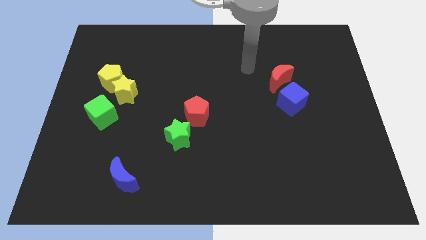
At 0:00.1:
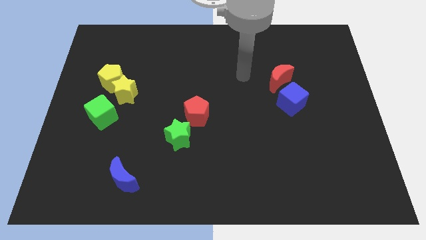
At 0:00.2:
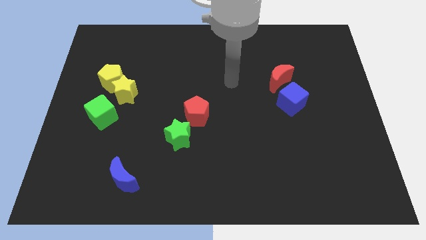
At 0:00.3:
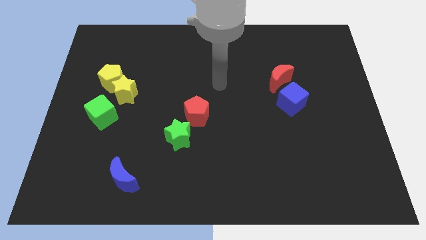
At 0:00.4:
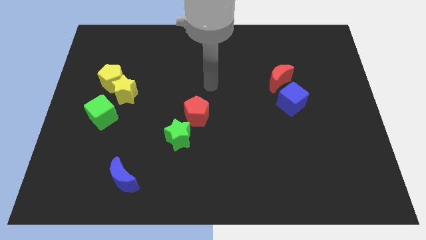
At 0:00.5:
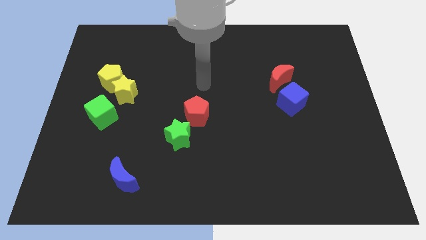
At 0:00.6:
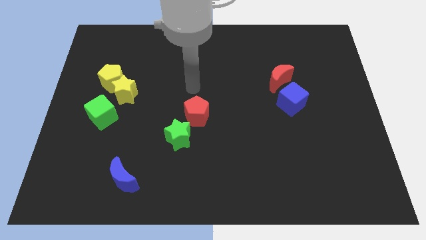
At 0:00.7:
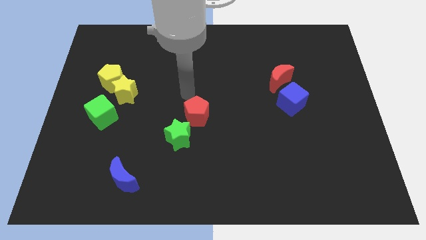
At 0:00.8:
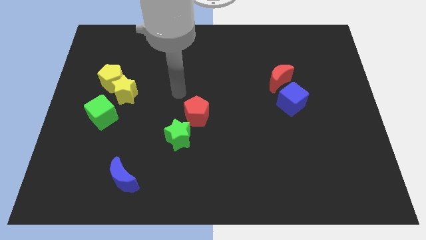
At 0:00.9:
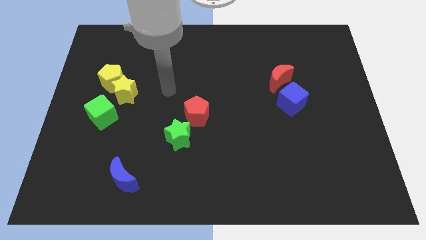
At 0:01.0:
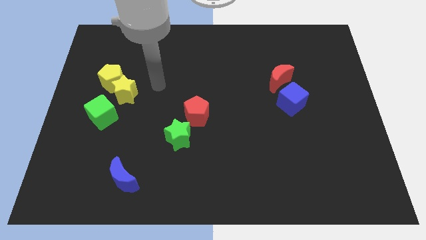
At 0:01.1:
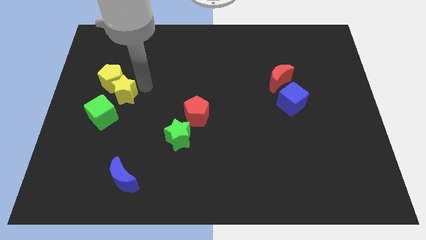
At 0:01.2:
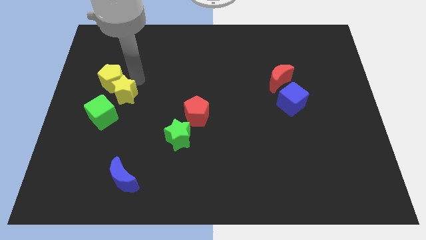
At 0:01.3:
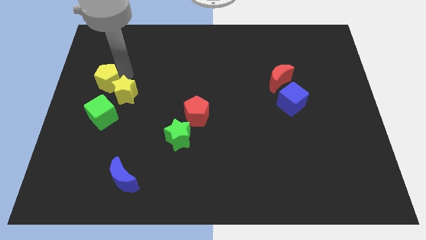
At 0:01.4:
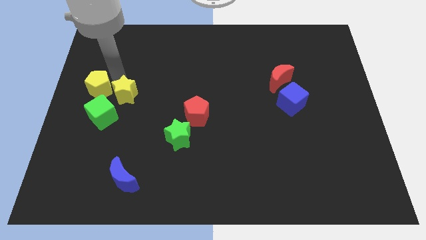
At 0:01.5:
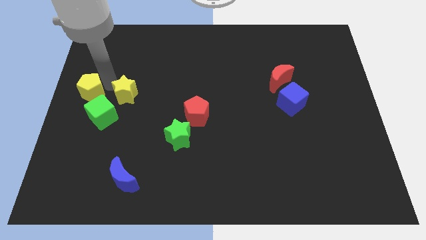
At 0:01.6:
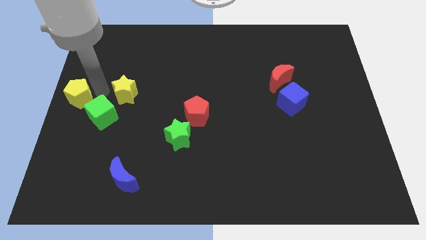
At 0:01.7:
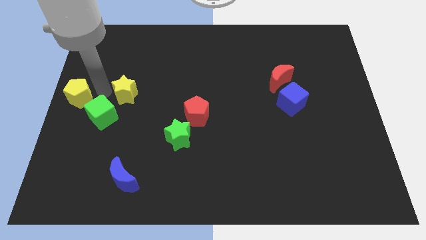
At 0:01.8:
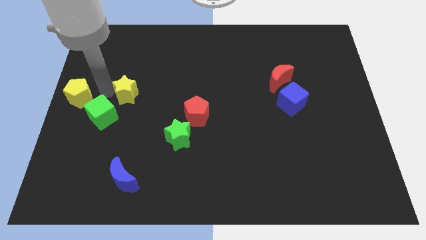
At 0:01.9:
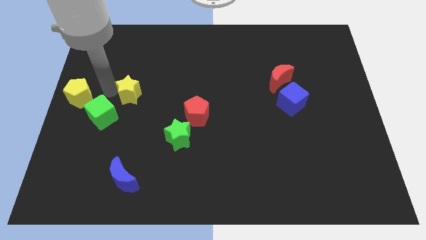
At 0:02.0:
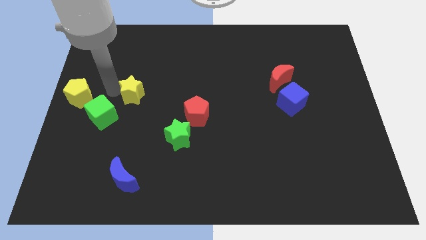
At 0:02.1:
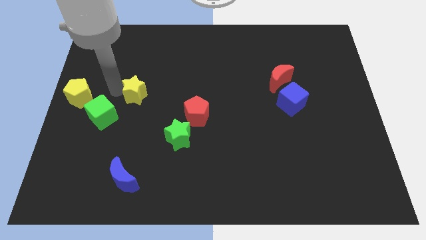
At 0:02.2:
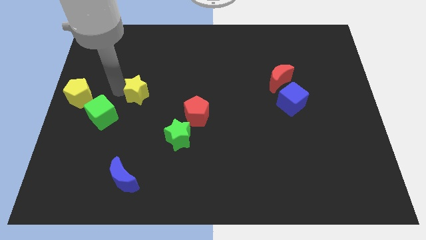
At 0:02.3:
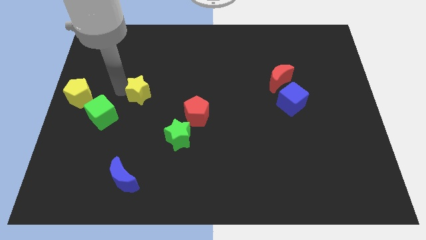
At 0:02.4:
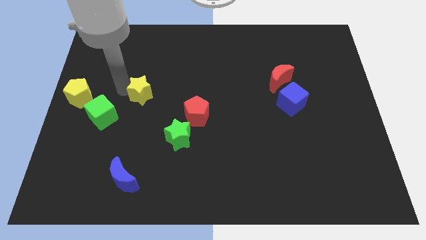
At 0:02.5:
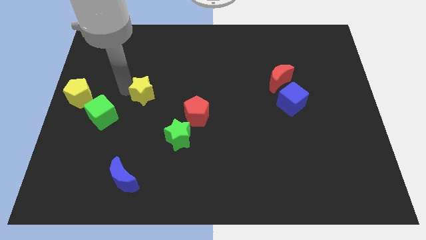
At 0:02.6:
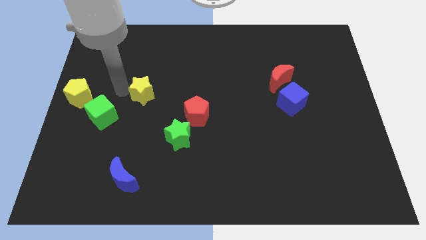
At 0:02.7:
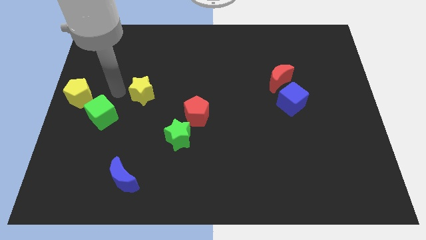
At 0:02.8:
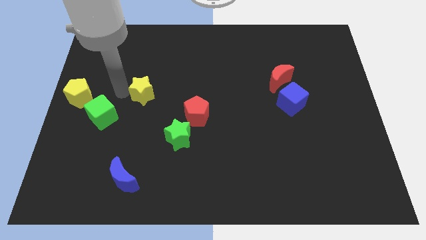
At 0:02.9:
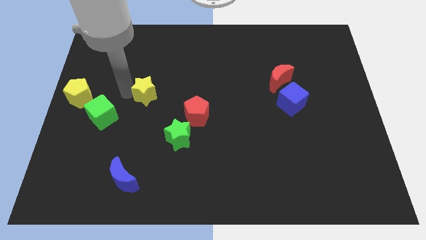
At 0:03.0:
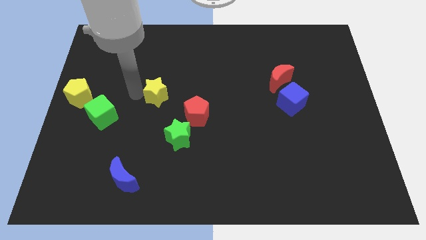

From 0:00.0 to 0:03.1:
slide the yellow star a little bit right

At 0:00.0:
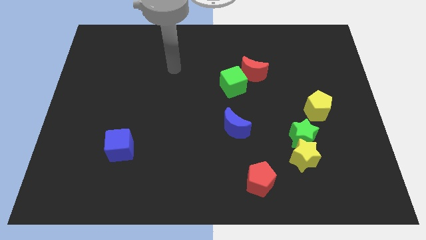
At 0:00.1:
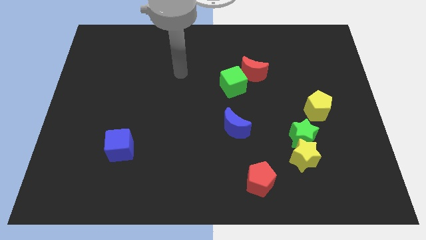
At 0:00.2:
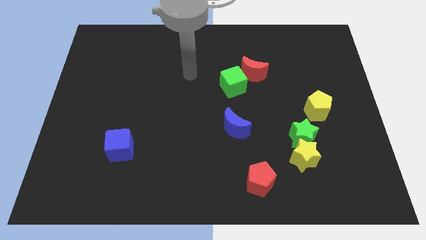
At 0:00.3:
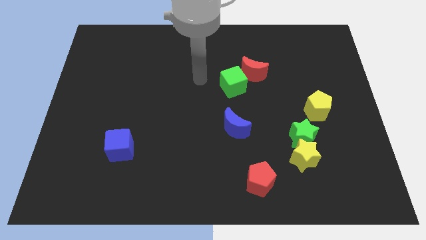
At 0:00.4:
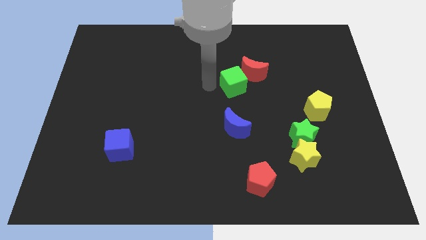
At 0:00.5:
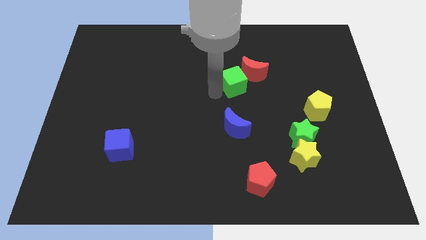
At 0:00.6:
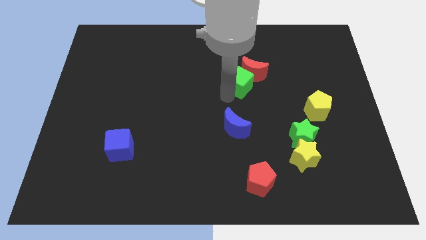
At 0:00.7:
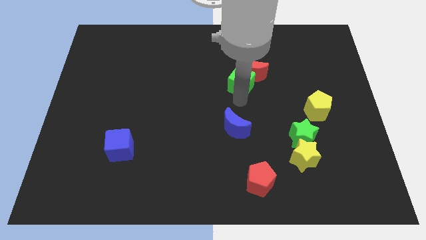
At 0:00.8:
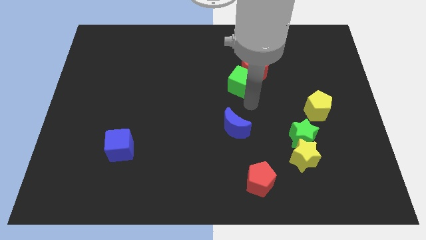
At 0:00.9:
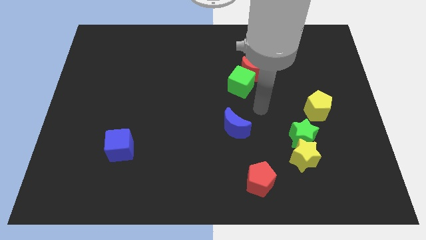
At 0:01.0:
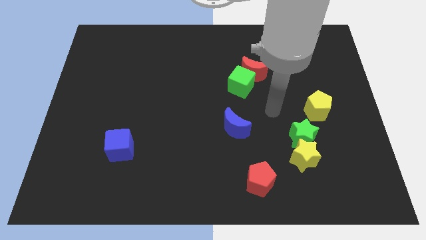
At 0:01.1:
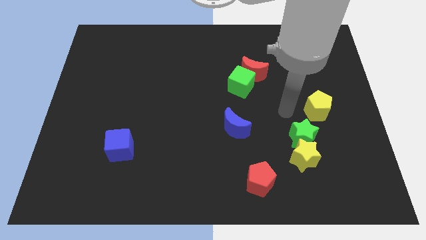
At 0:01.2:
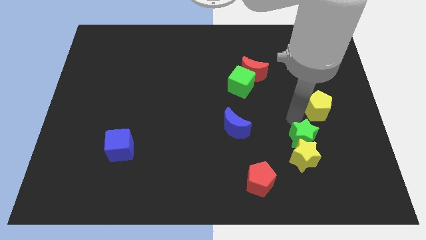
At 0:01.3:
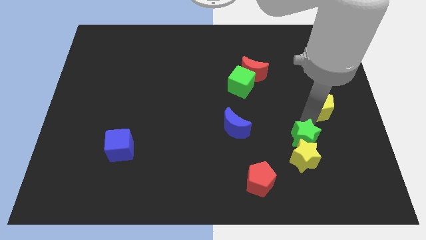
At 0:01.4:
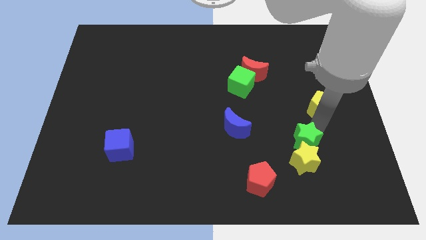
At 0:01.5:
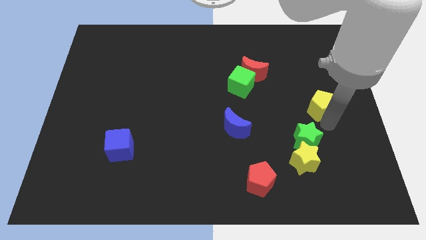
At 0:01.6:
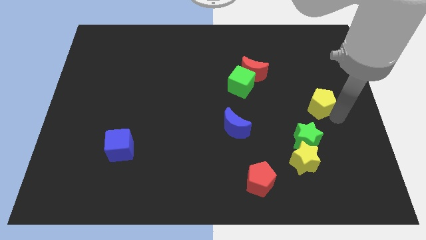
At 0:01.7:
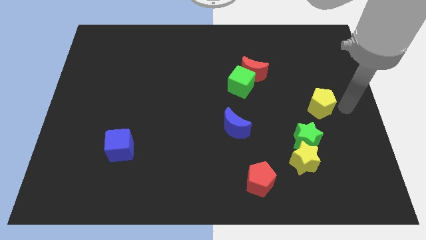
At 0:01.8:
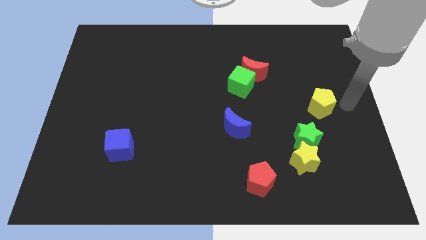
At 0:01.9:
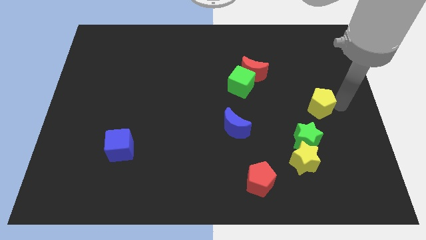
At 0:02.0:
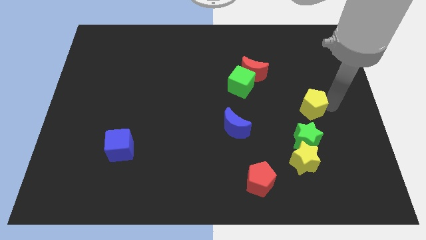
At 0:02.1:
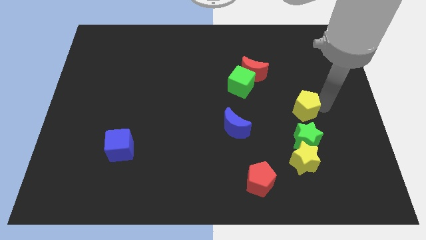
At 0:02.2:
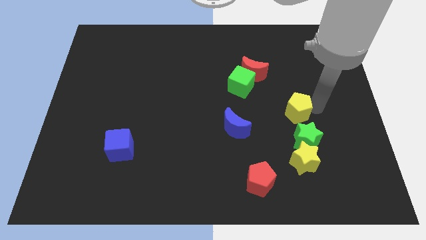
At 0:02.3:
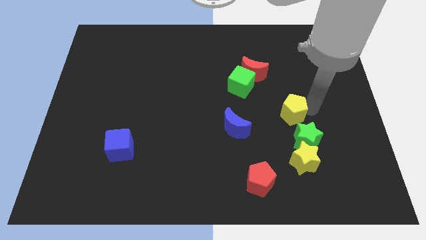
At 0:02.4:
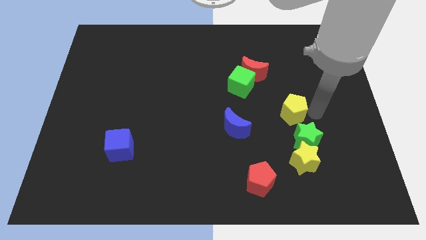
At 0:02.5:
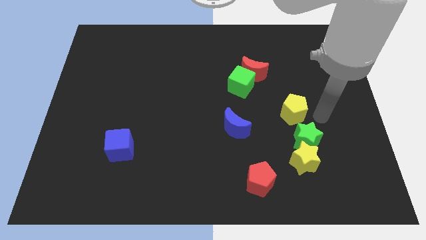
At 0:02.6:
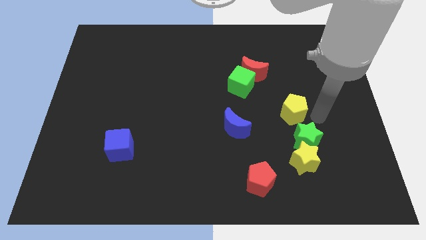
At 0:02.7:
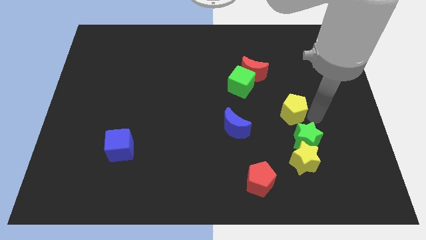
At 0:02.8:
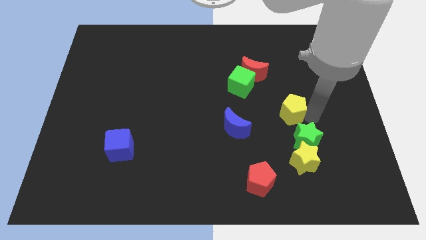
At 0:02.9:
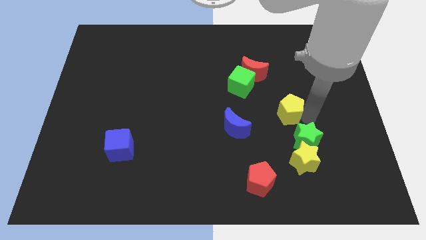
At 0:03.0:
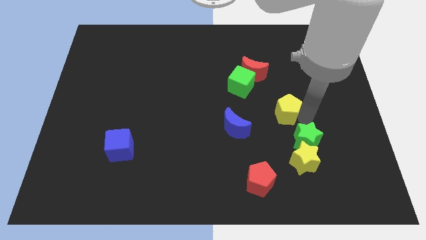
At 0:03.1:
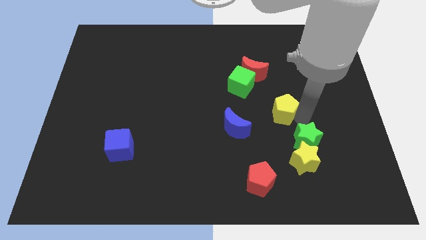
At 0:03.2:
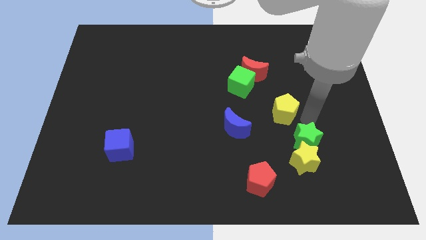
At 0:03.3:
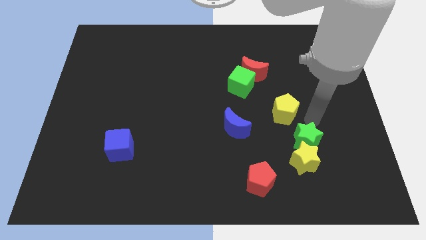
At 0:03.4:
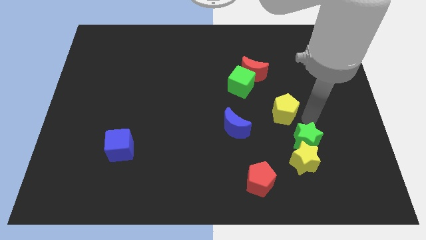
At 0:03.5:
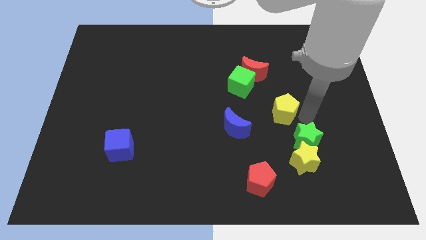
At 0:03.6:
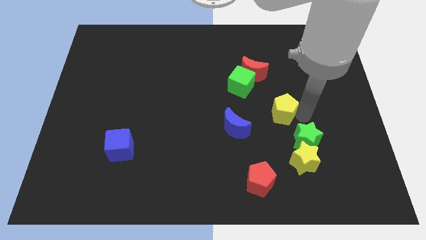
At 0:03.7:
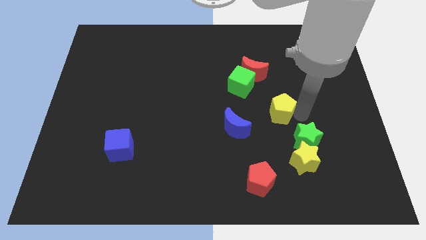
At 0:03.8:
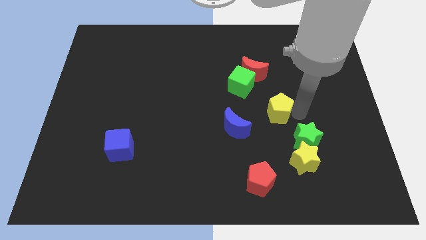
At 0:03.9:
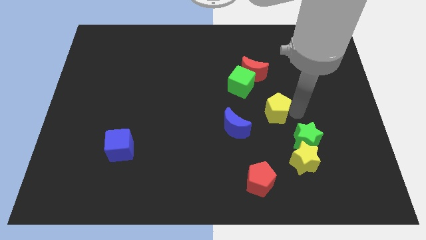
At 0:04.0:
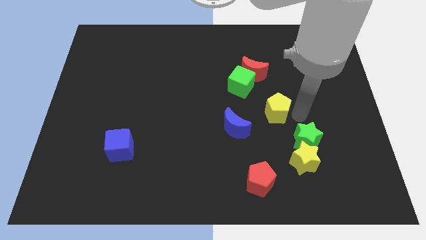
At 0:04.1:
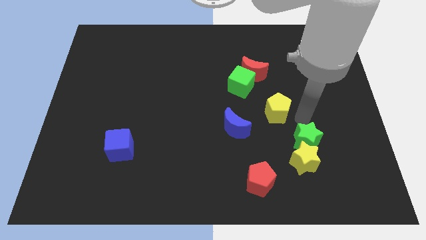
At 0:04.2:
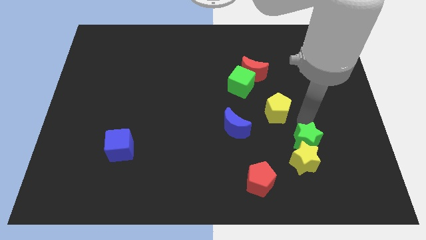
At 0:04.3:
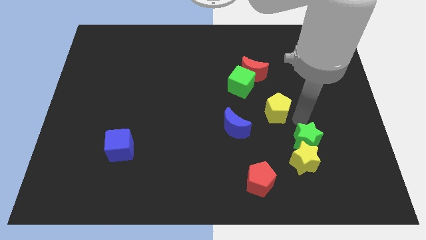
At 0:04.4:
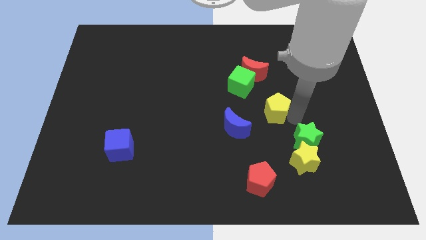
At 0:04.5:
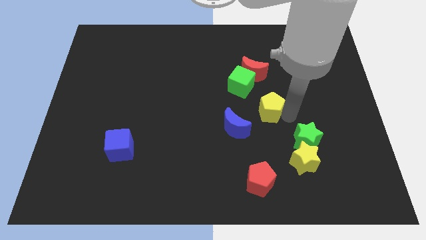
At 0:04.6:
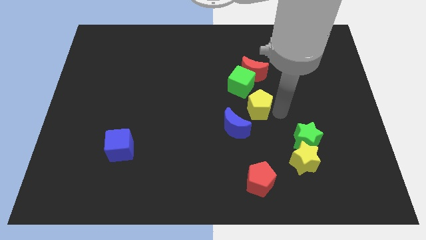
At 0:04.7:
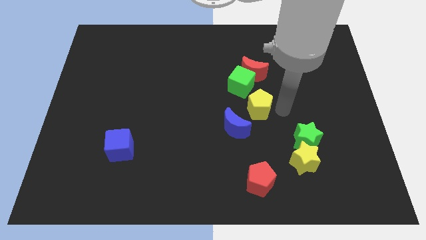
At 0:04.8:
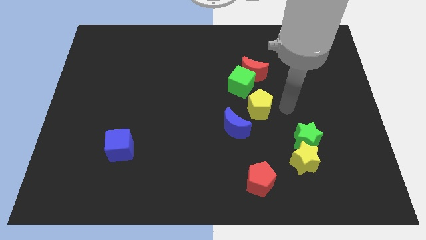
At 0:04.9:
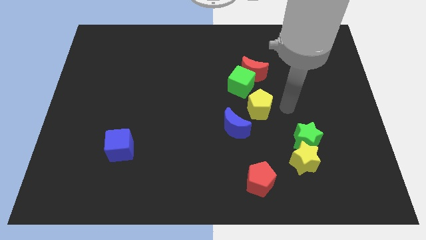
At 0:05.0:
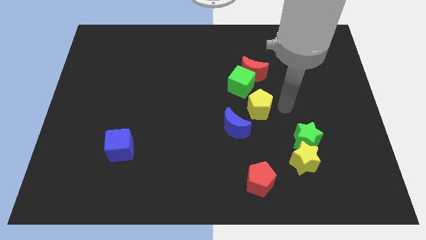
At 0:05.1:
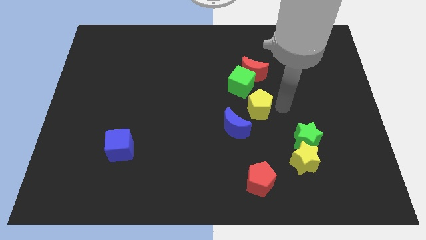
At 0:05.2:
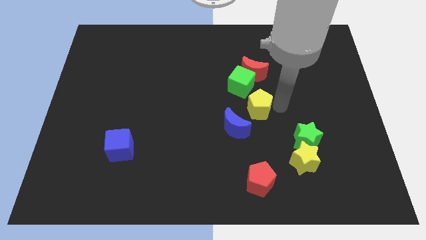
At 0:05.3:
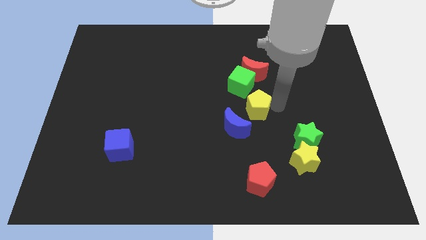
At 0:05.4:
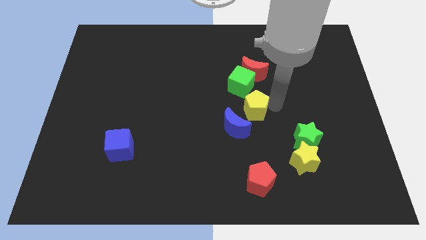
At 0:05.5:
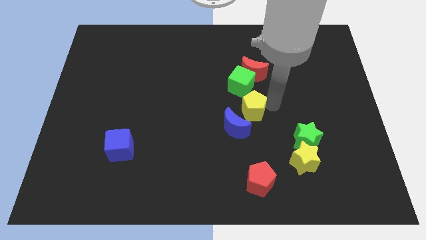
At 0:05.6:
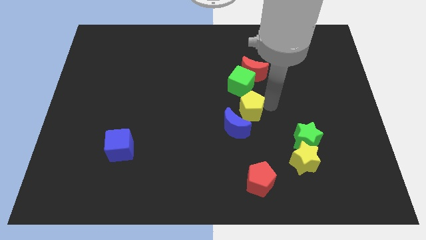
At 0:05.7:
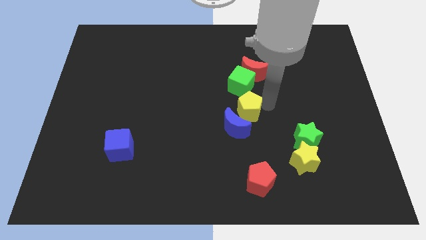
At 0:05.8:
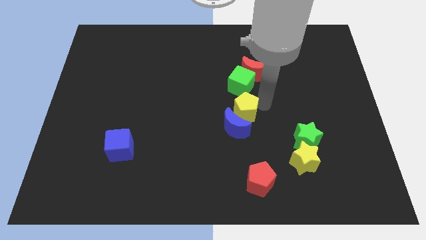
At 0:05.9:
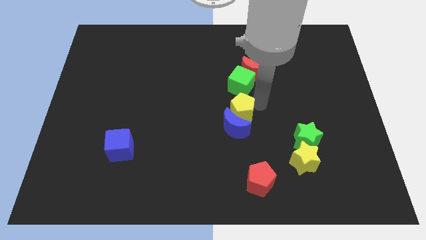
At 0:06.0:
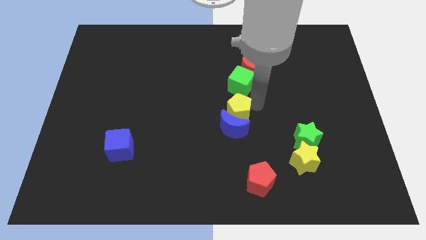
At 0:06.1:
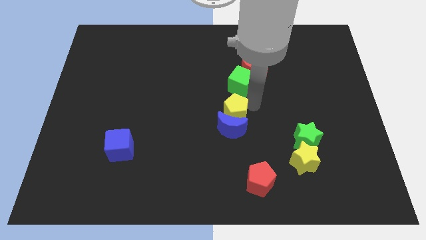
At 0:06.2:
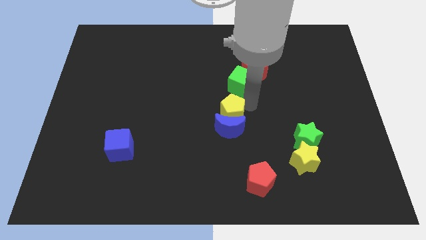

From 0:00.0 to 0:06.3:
move the yellow pentagon to the left
